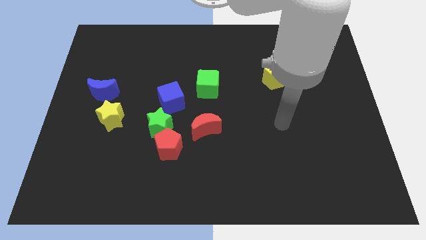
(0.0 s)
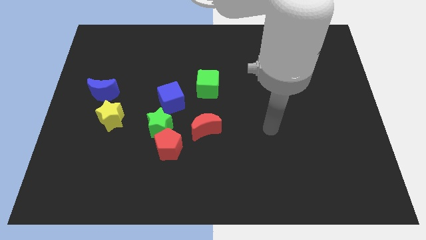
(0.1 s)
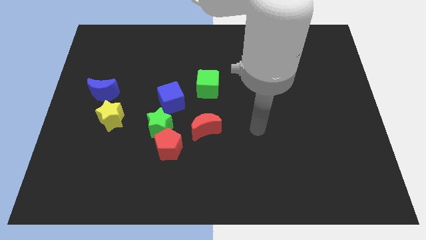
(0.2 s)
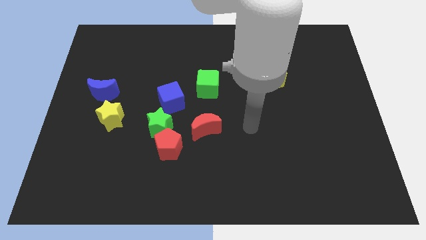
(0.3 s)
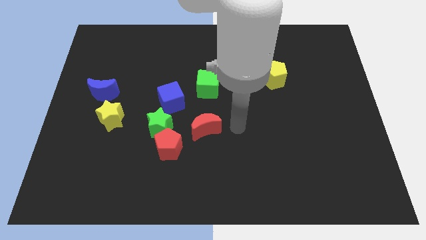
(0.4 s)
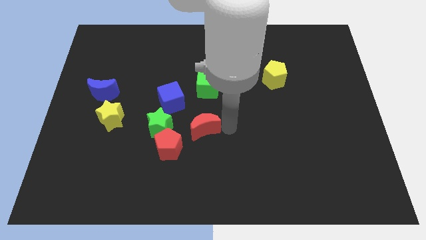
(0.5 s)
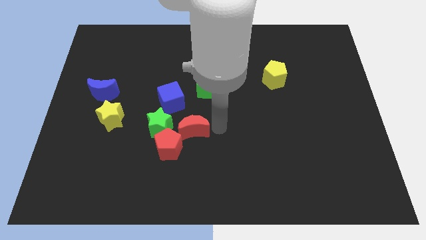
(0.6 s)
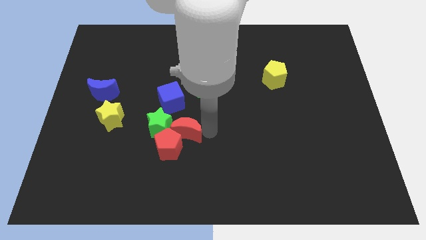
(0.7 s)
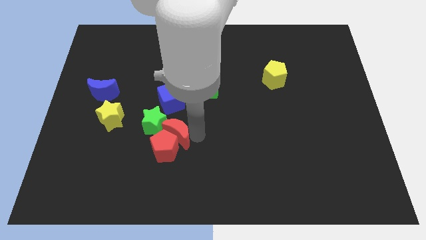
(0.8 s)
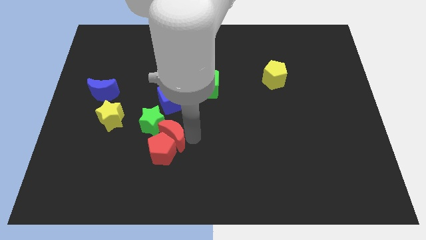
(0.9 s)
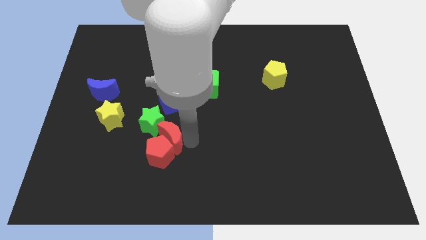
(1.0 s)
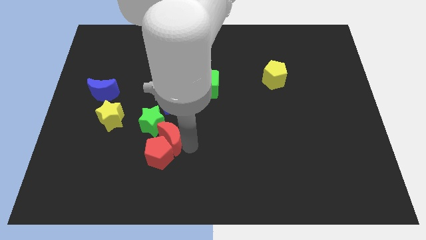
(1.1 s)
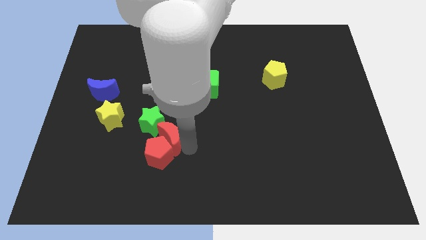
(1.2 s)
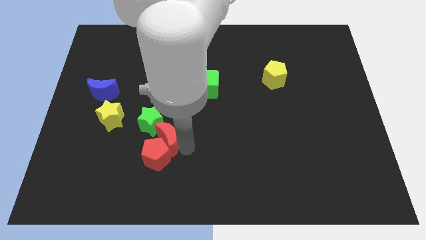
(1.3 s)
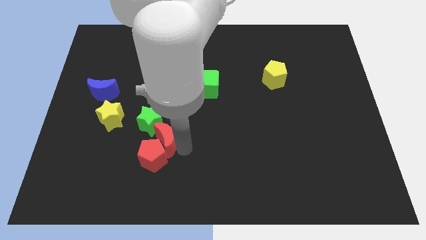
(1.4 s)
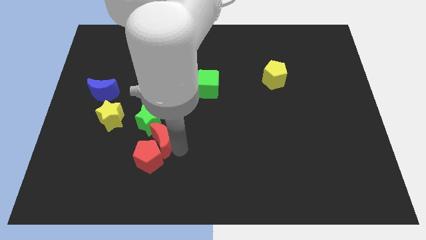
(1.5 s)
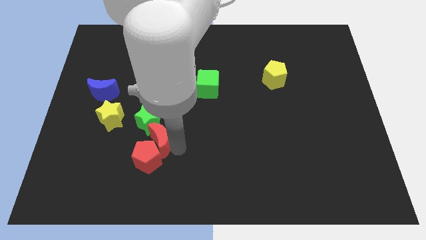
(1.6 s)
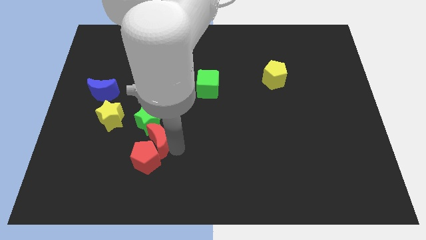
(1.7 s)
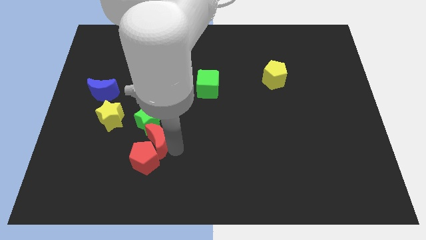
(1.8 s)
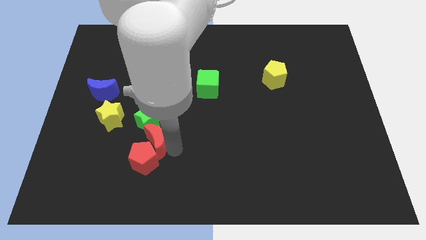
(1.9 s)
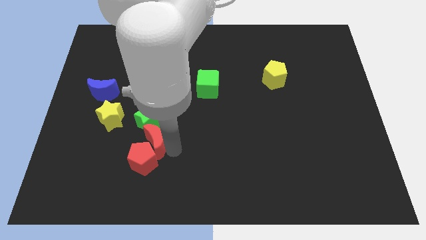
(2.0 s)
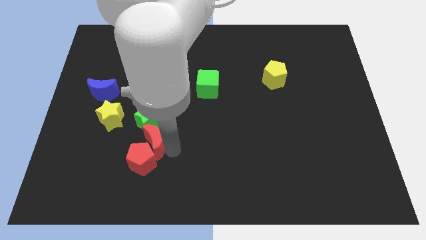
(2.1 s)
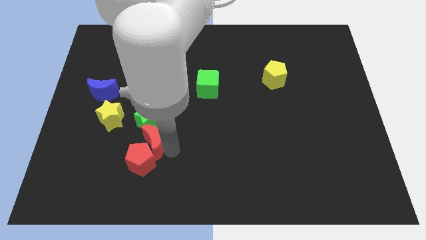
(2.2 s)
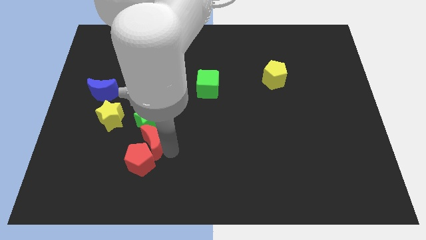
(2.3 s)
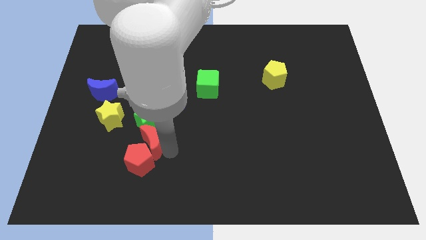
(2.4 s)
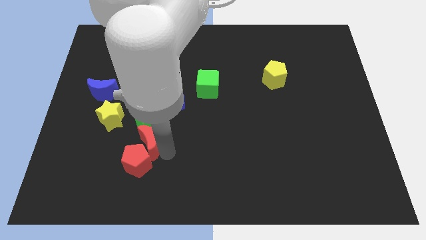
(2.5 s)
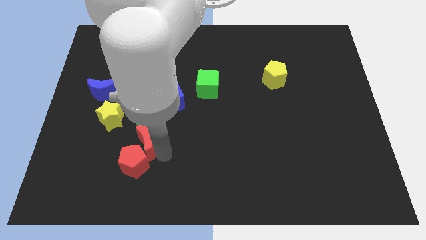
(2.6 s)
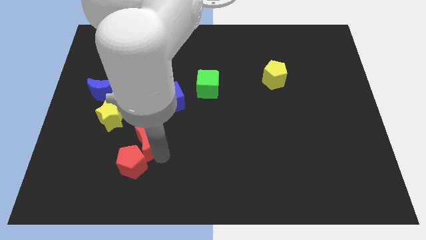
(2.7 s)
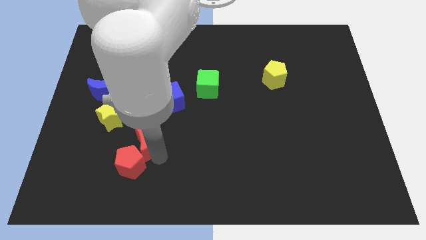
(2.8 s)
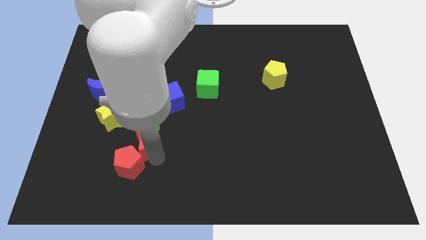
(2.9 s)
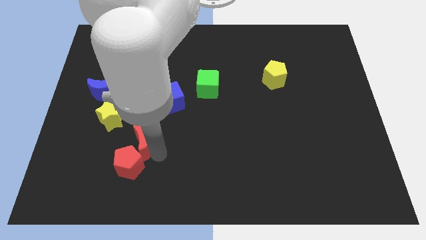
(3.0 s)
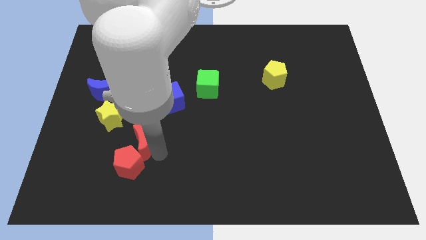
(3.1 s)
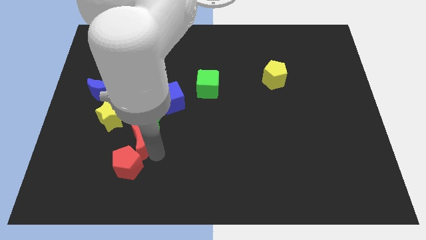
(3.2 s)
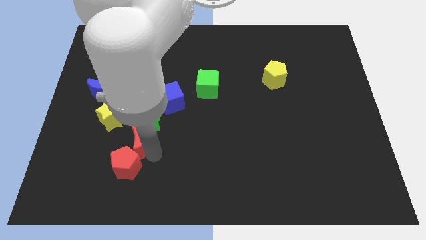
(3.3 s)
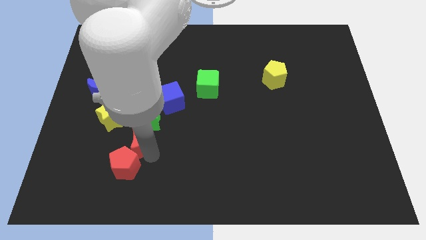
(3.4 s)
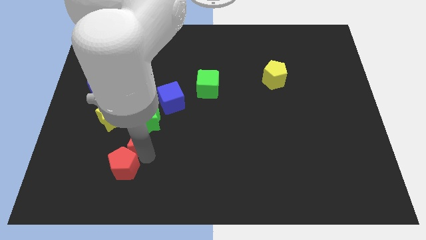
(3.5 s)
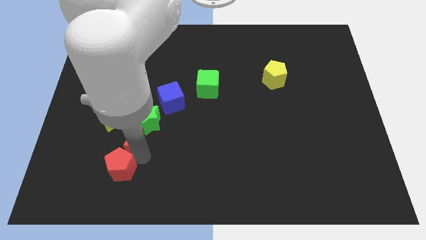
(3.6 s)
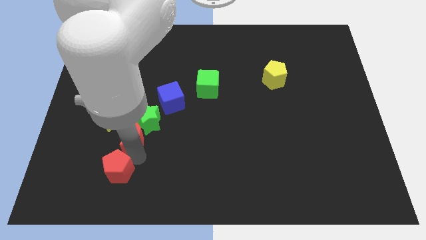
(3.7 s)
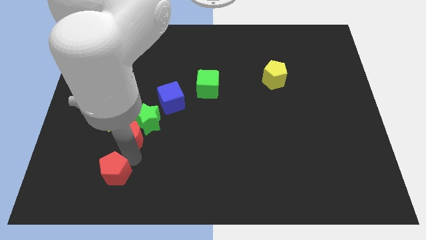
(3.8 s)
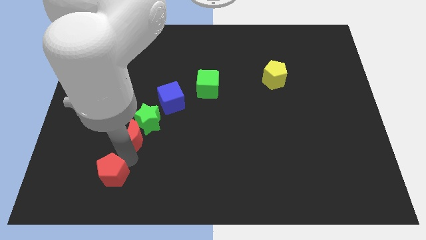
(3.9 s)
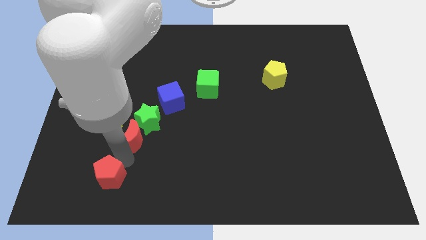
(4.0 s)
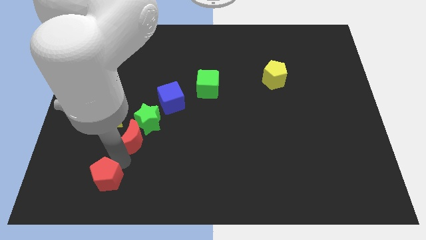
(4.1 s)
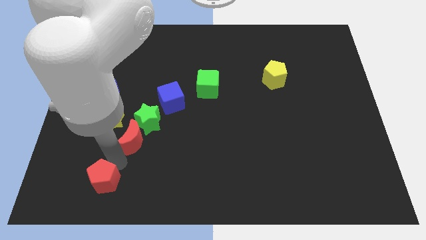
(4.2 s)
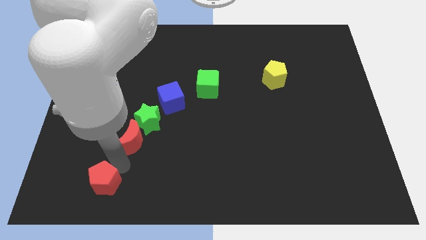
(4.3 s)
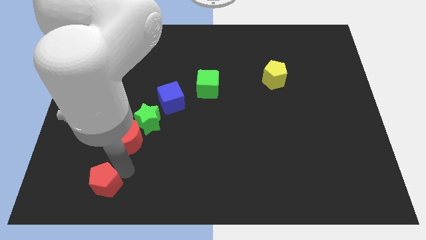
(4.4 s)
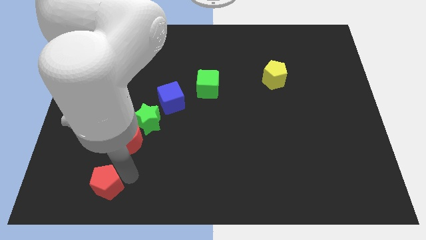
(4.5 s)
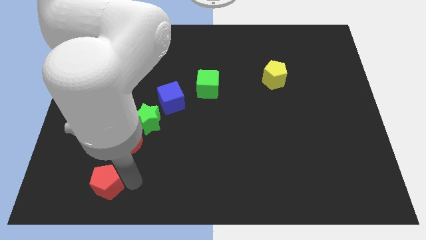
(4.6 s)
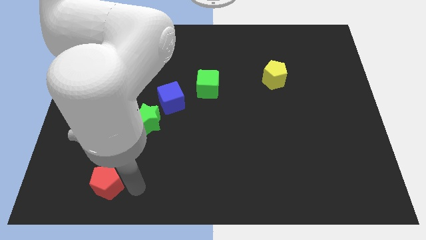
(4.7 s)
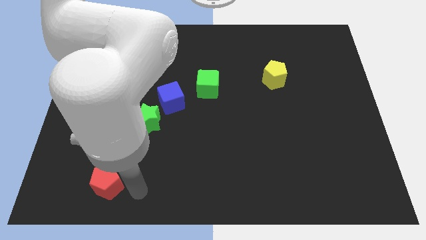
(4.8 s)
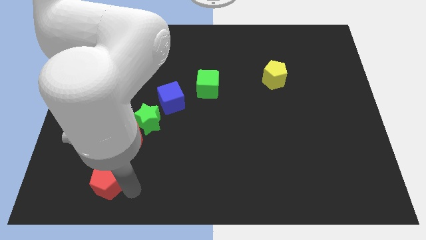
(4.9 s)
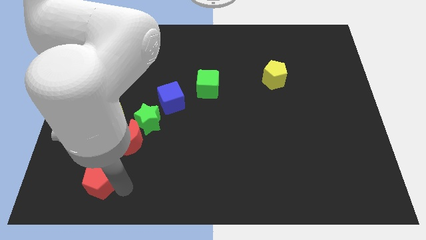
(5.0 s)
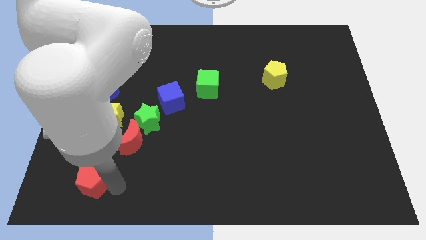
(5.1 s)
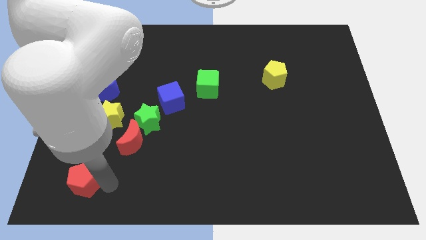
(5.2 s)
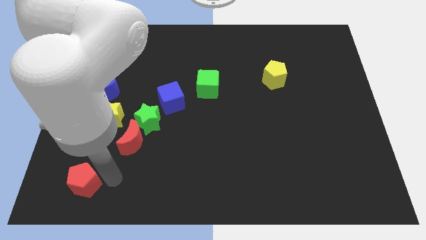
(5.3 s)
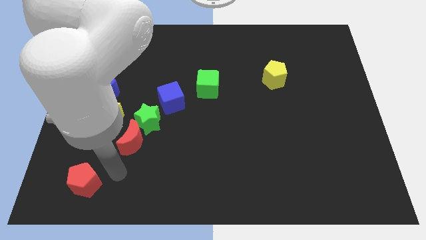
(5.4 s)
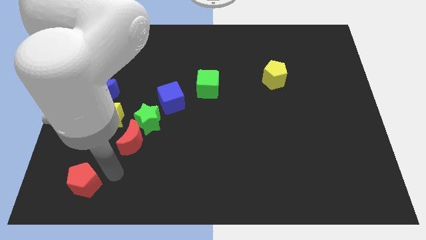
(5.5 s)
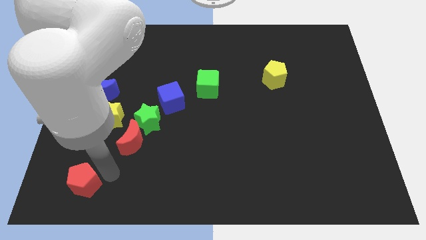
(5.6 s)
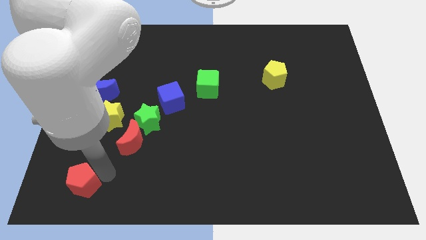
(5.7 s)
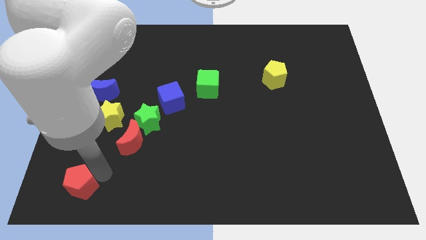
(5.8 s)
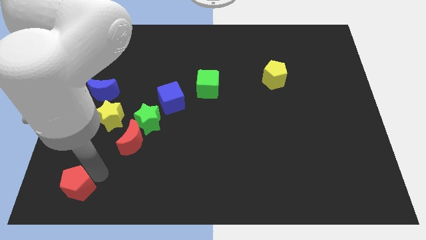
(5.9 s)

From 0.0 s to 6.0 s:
put the red pentagon to the bottom left of the board
